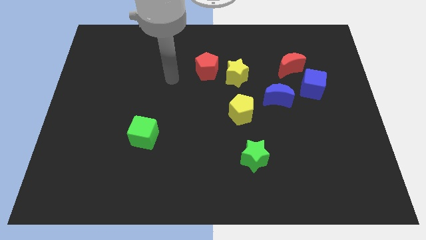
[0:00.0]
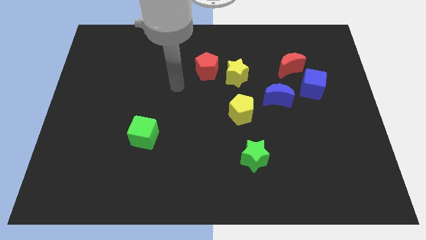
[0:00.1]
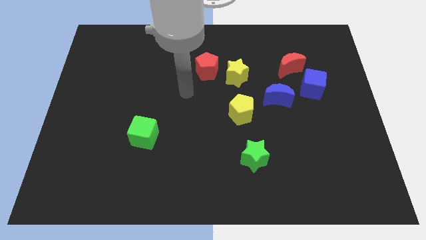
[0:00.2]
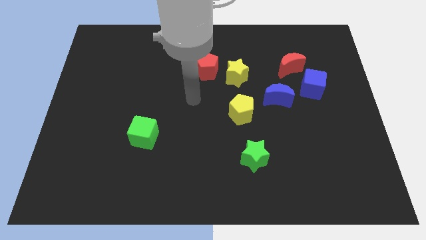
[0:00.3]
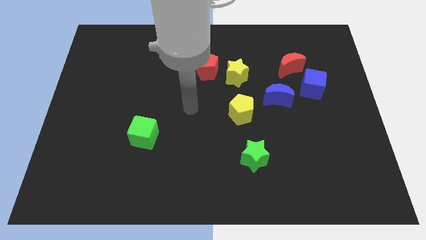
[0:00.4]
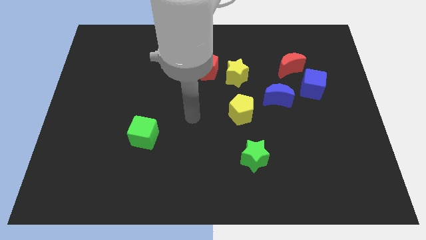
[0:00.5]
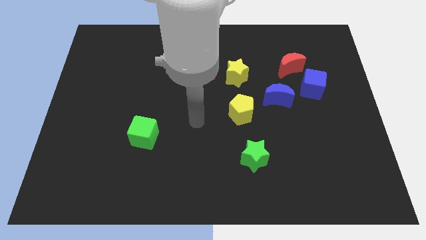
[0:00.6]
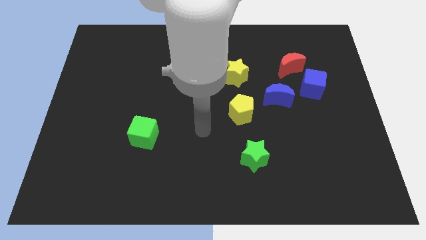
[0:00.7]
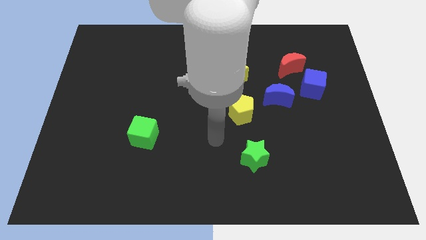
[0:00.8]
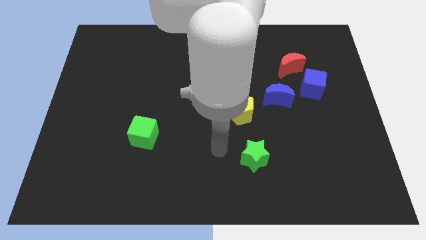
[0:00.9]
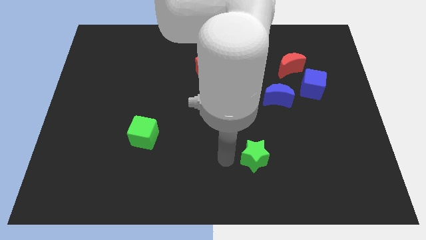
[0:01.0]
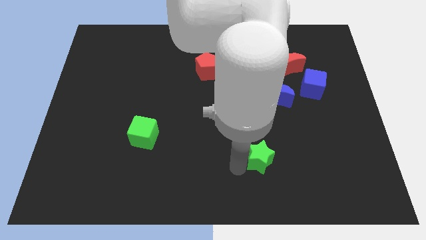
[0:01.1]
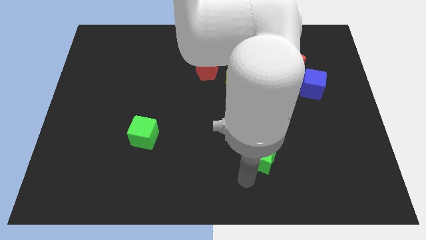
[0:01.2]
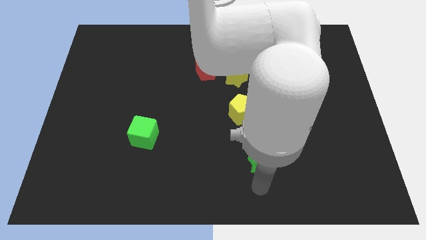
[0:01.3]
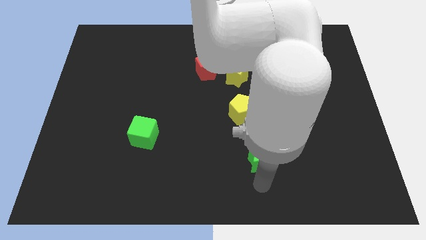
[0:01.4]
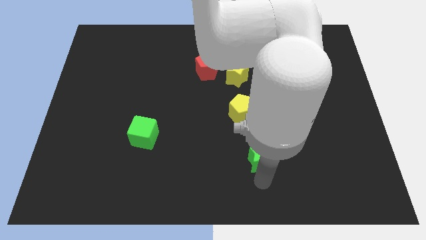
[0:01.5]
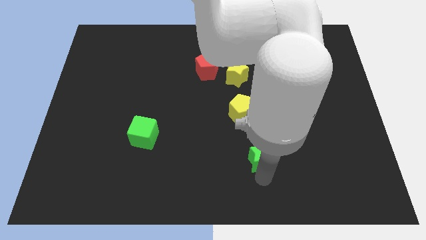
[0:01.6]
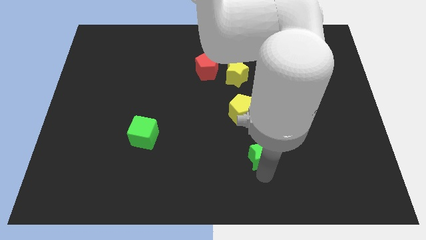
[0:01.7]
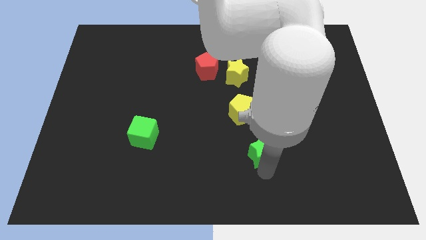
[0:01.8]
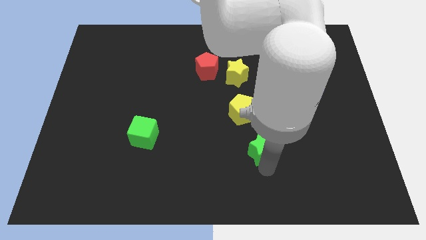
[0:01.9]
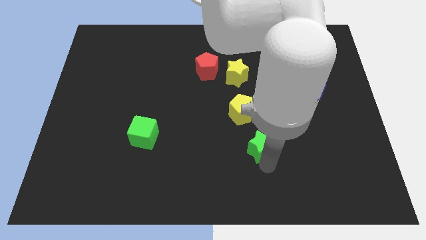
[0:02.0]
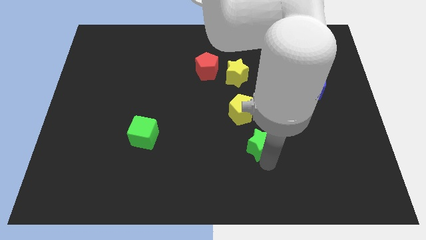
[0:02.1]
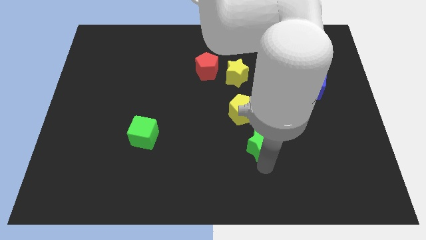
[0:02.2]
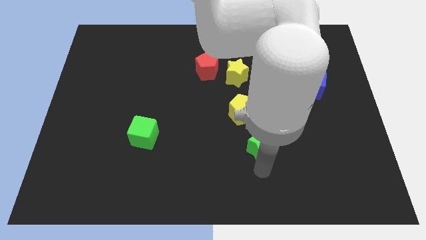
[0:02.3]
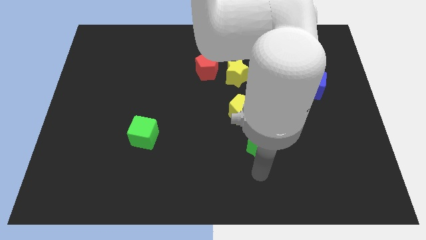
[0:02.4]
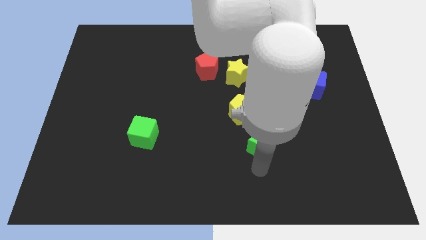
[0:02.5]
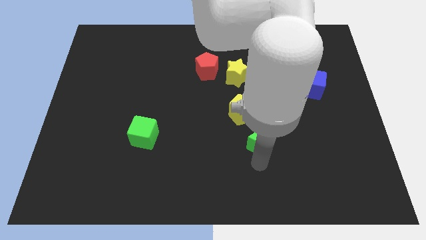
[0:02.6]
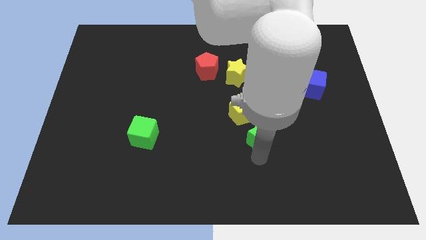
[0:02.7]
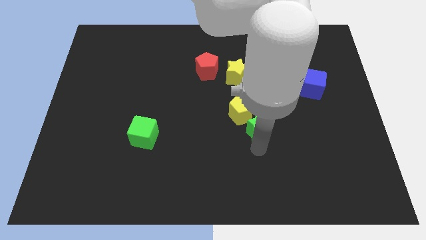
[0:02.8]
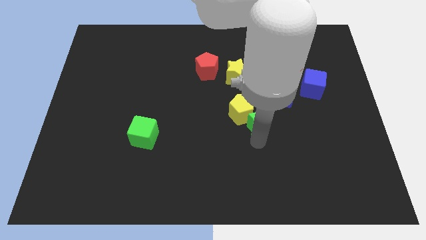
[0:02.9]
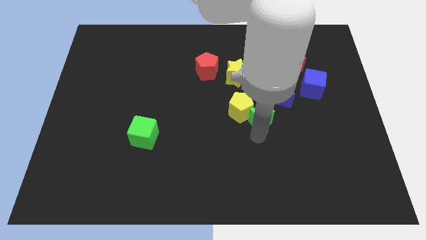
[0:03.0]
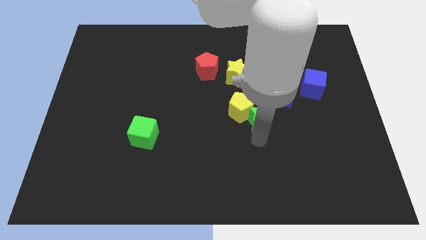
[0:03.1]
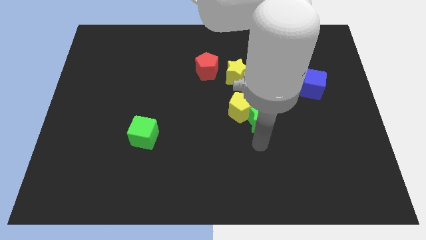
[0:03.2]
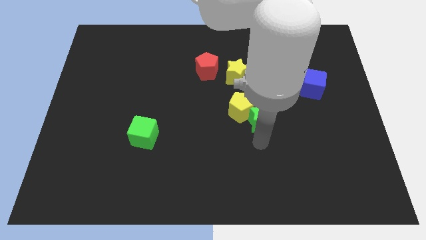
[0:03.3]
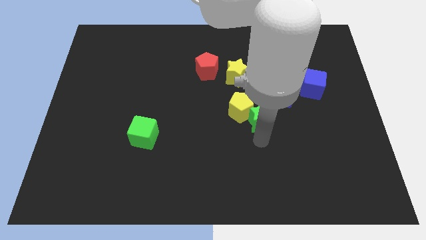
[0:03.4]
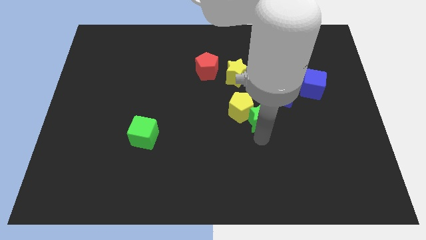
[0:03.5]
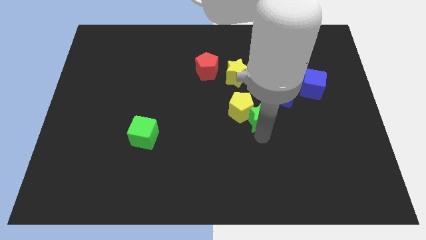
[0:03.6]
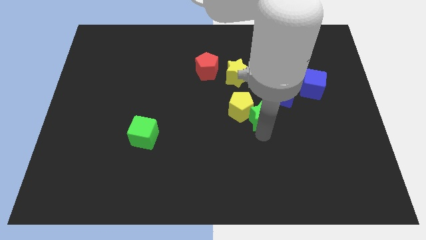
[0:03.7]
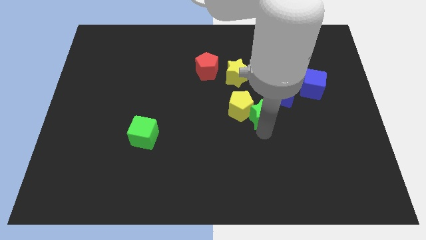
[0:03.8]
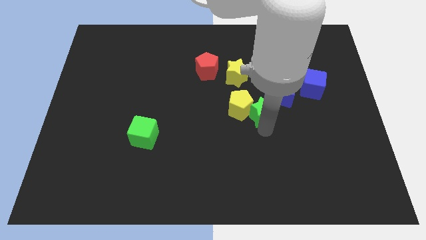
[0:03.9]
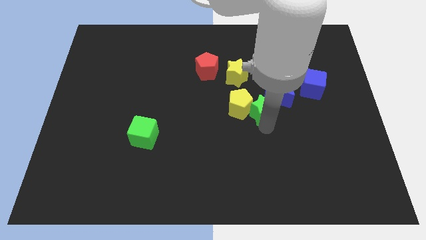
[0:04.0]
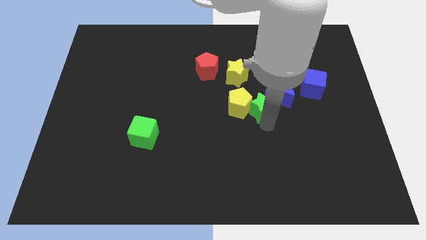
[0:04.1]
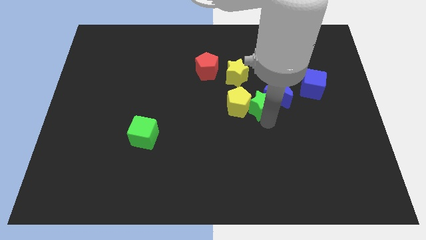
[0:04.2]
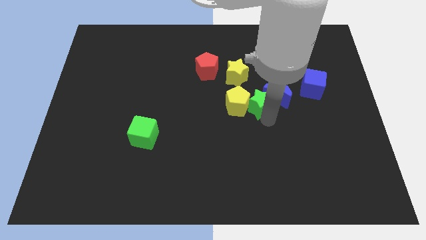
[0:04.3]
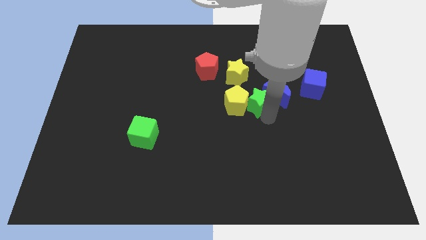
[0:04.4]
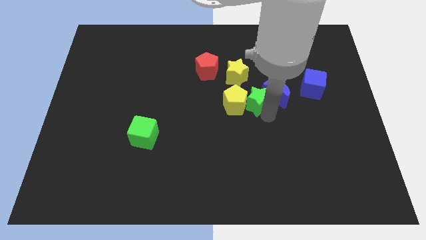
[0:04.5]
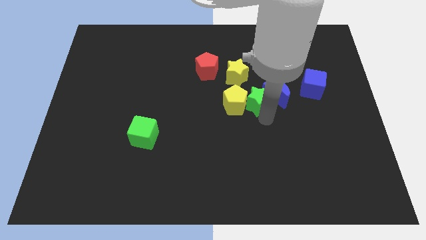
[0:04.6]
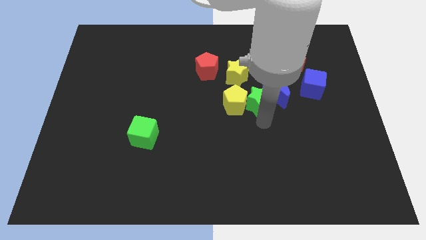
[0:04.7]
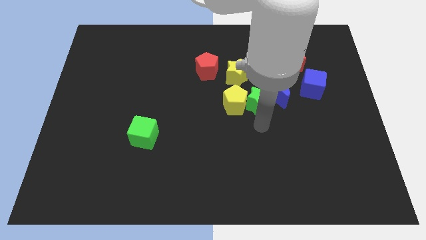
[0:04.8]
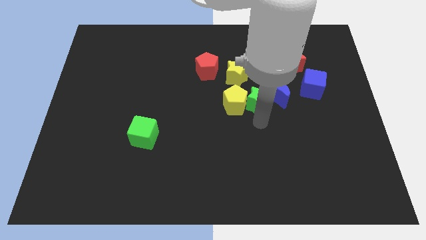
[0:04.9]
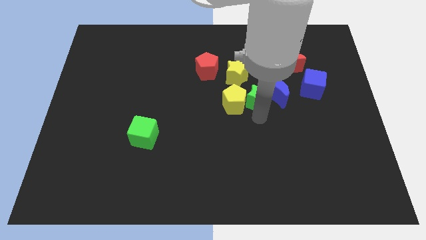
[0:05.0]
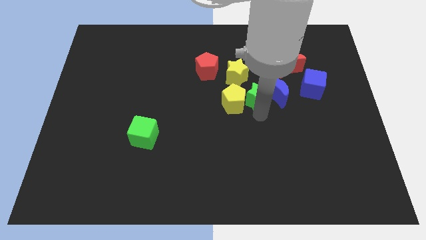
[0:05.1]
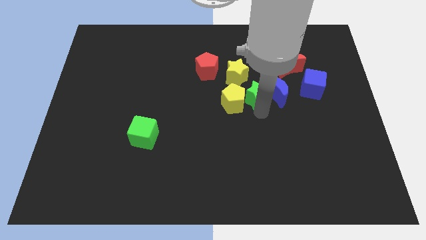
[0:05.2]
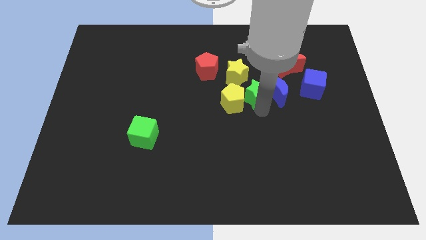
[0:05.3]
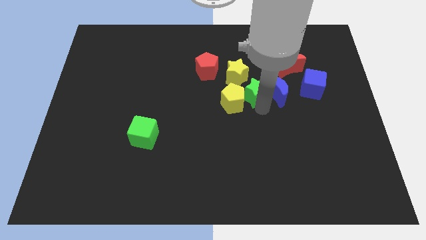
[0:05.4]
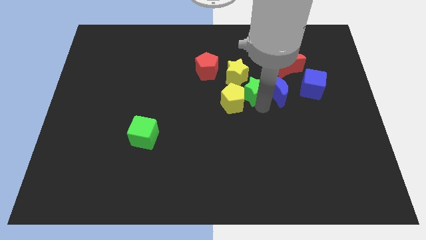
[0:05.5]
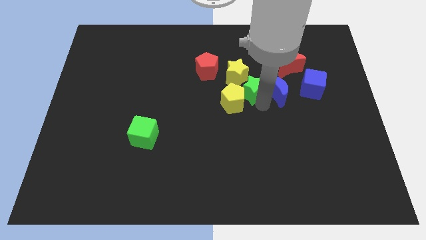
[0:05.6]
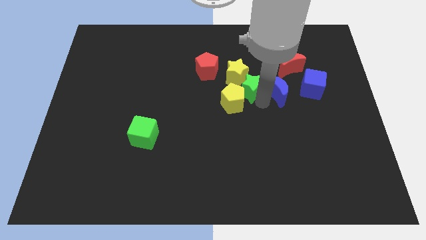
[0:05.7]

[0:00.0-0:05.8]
put the green star close to the yellow star

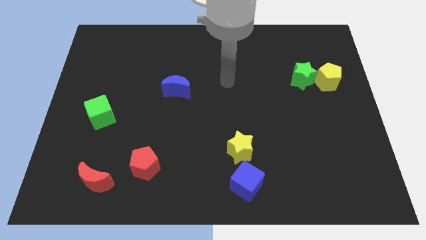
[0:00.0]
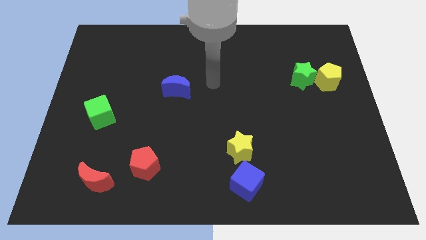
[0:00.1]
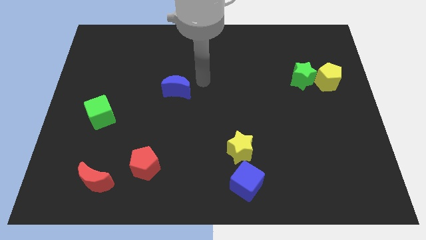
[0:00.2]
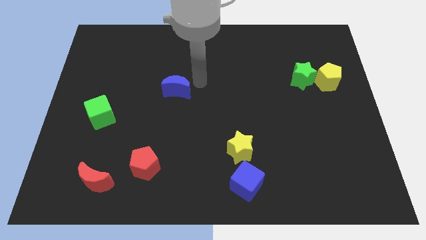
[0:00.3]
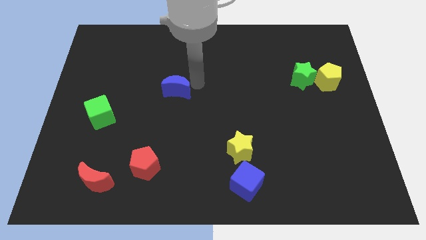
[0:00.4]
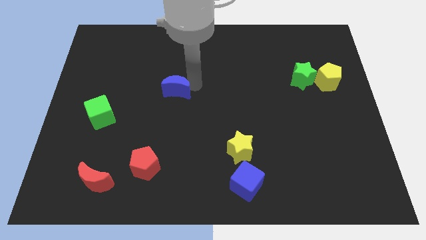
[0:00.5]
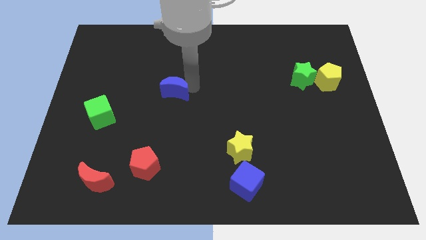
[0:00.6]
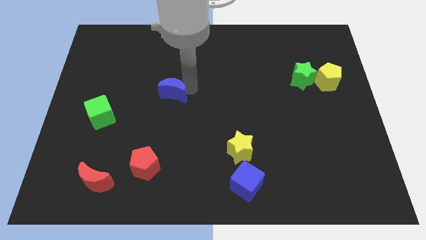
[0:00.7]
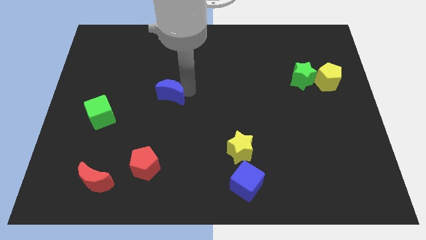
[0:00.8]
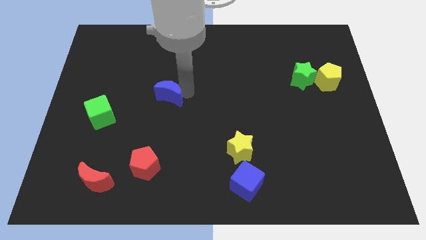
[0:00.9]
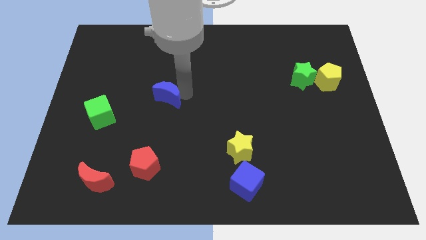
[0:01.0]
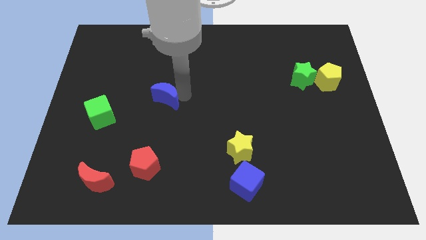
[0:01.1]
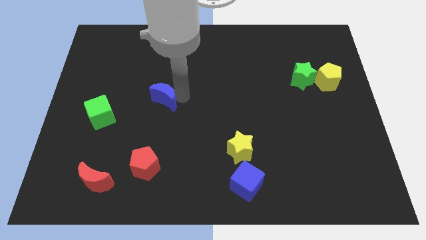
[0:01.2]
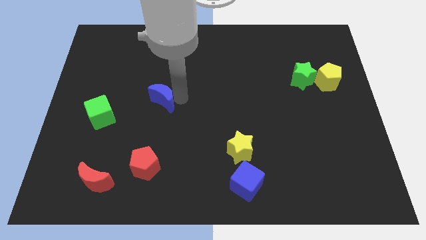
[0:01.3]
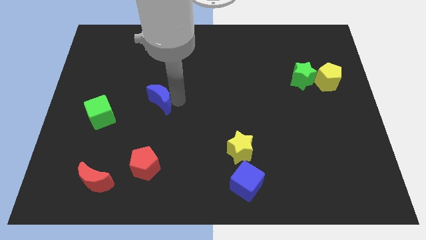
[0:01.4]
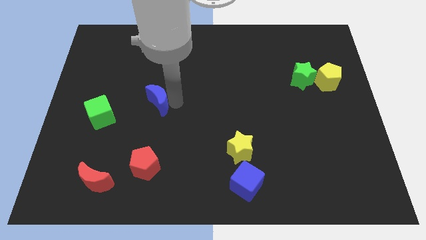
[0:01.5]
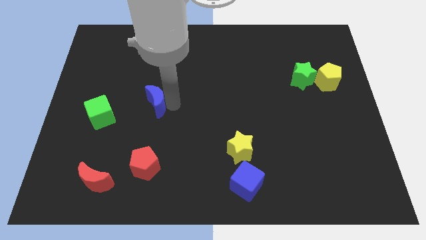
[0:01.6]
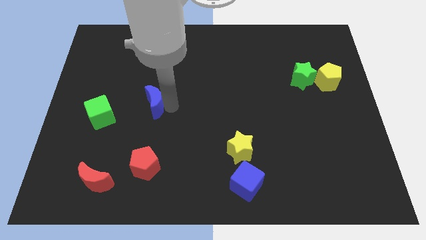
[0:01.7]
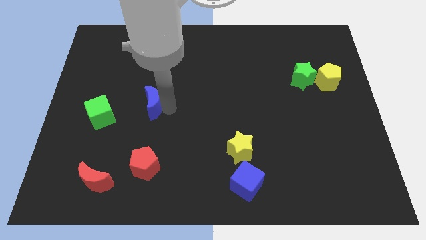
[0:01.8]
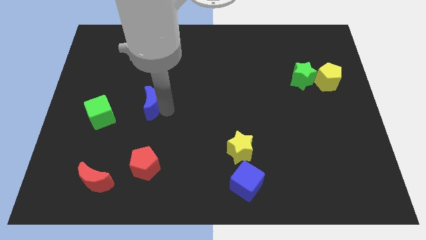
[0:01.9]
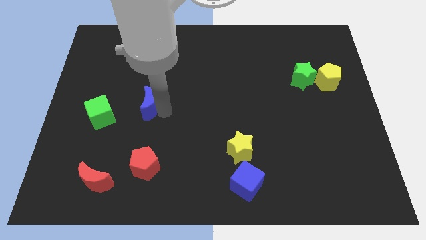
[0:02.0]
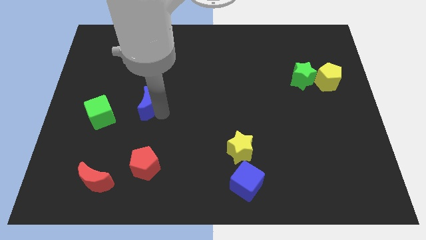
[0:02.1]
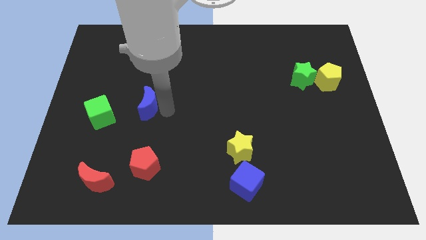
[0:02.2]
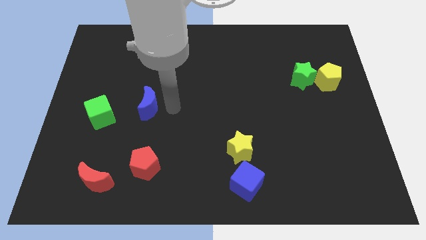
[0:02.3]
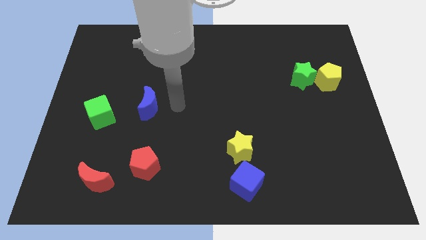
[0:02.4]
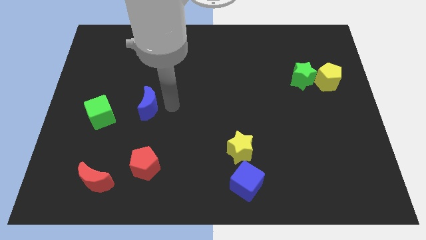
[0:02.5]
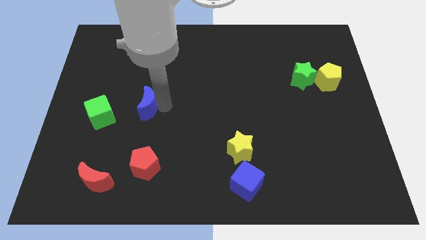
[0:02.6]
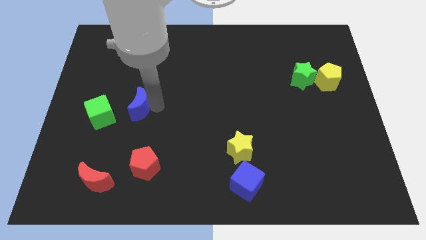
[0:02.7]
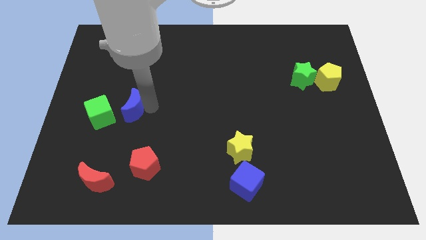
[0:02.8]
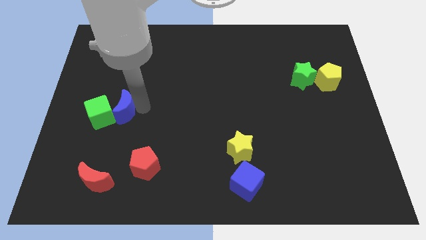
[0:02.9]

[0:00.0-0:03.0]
push the blue moon to the green cube
